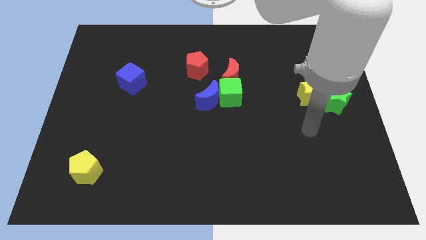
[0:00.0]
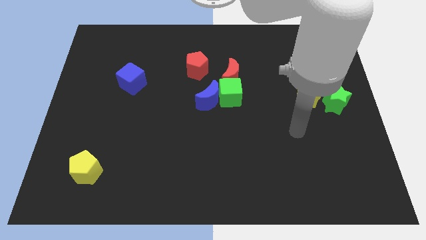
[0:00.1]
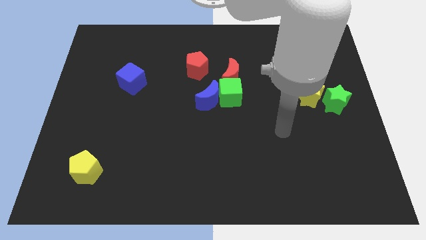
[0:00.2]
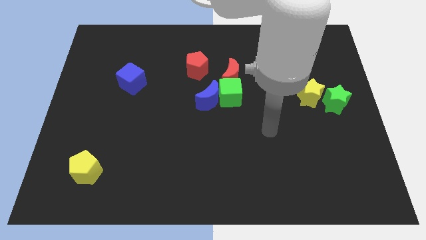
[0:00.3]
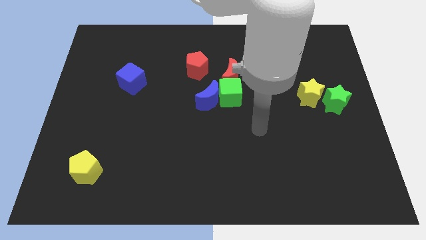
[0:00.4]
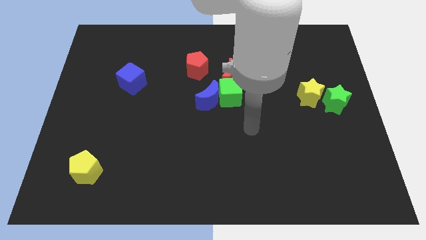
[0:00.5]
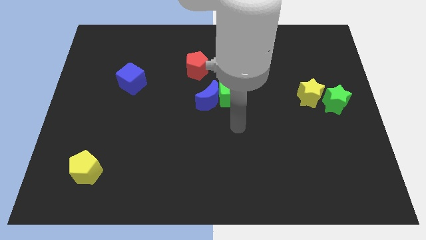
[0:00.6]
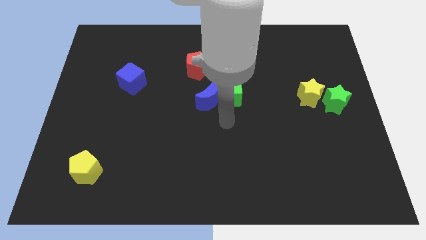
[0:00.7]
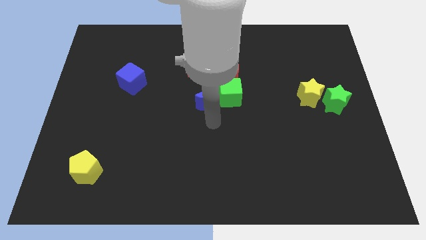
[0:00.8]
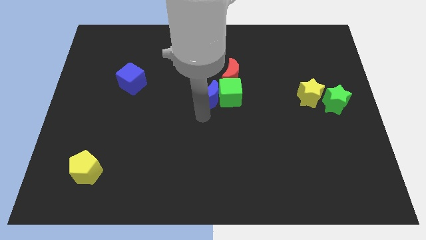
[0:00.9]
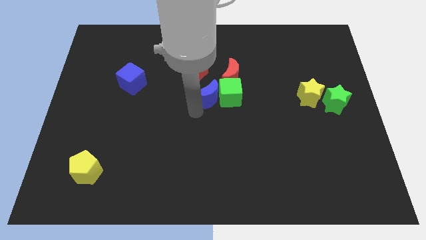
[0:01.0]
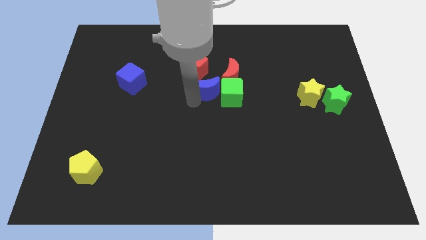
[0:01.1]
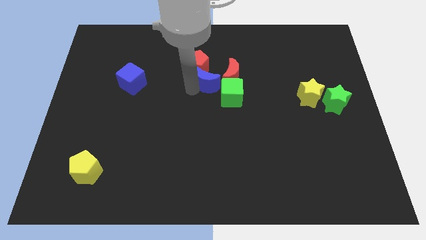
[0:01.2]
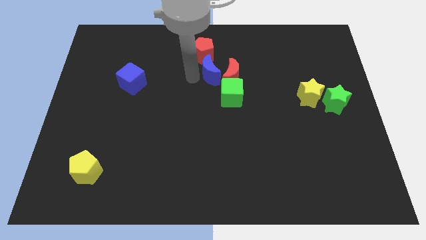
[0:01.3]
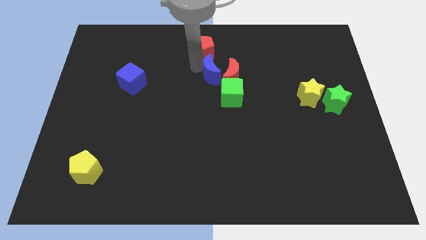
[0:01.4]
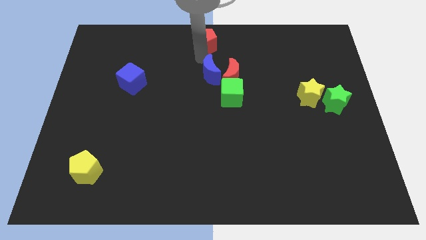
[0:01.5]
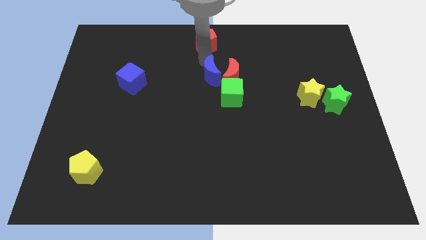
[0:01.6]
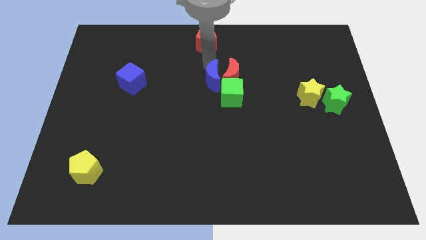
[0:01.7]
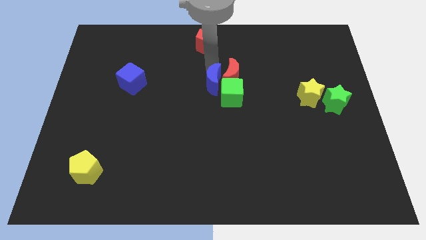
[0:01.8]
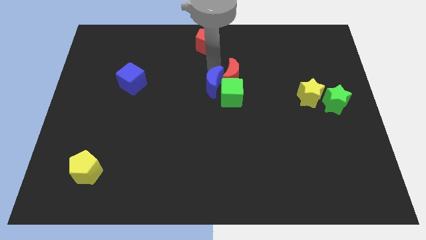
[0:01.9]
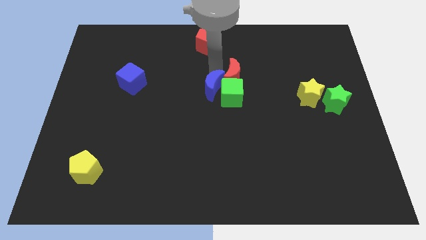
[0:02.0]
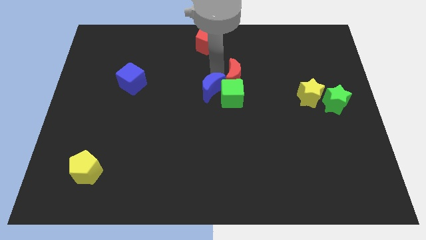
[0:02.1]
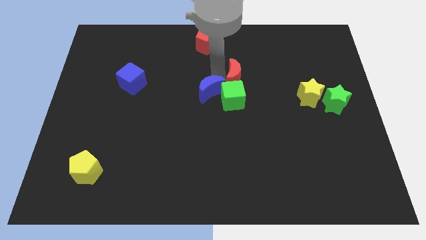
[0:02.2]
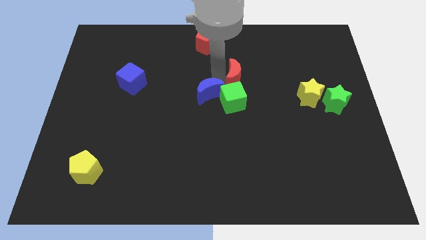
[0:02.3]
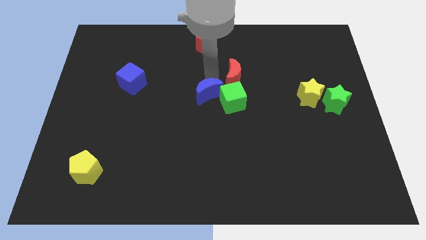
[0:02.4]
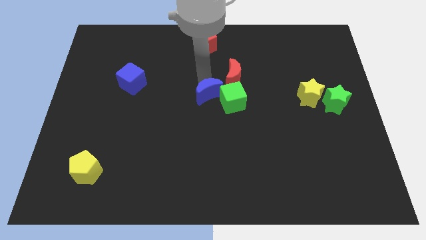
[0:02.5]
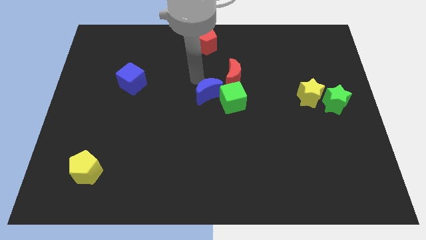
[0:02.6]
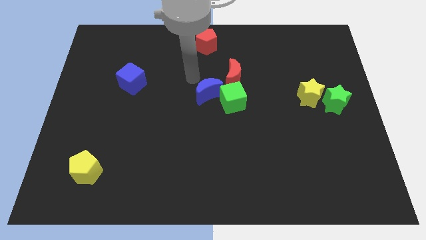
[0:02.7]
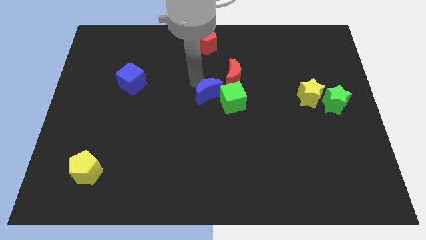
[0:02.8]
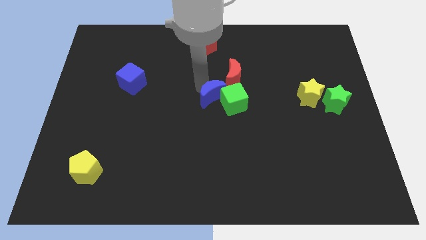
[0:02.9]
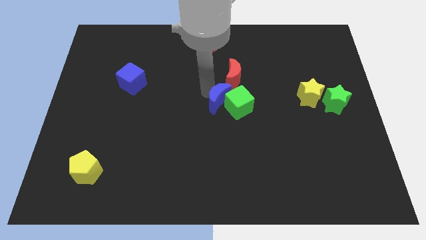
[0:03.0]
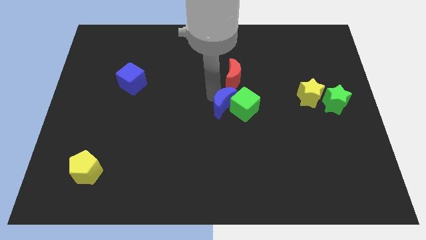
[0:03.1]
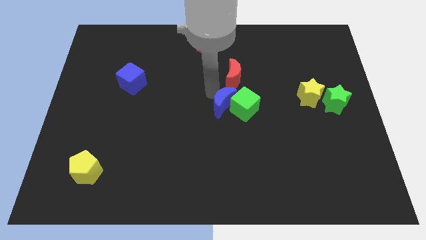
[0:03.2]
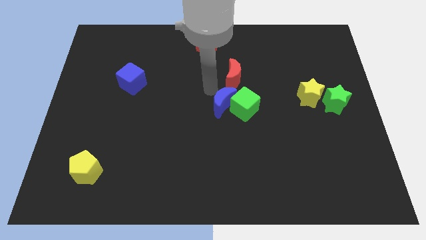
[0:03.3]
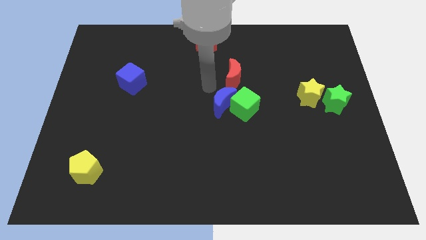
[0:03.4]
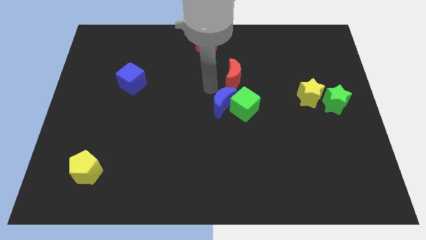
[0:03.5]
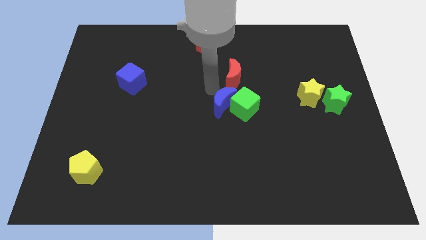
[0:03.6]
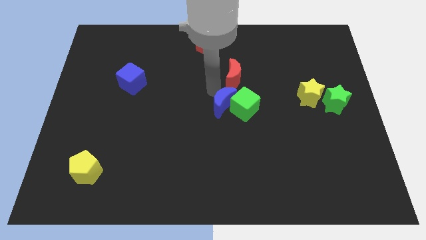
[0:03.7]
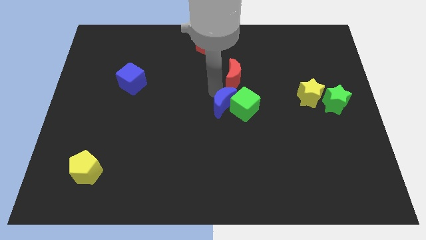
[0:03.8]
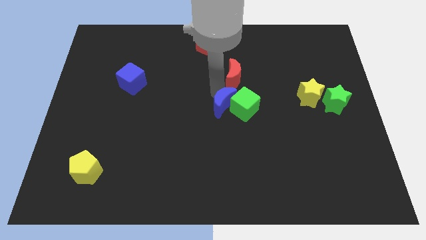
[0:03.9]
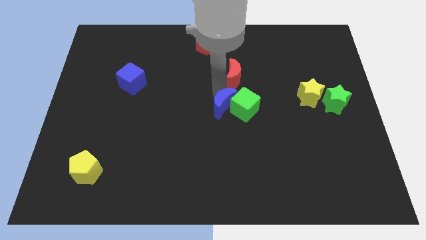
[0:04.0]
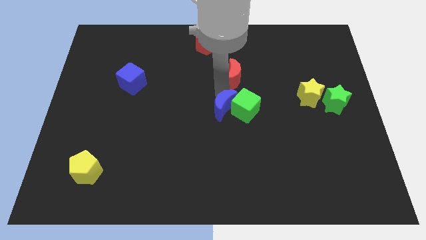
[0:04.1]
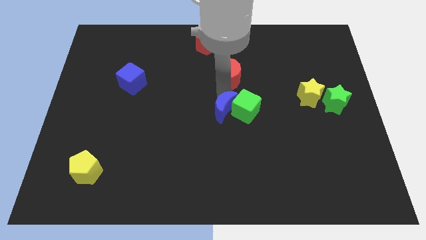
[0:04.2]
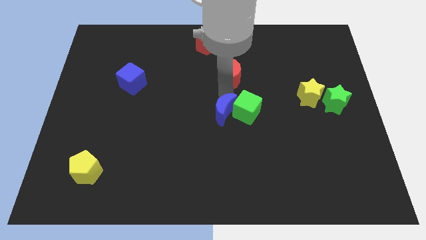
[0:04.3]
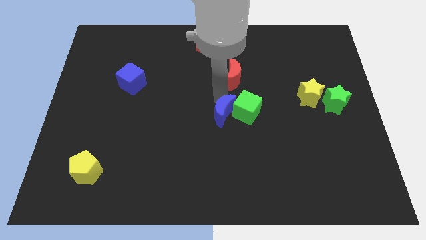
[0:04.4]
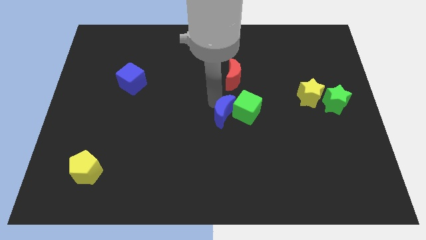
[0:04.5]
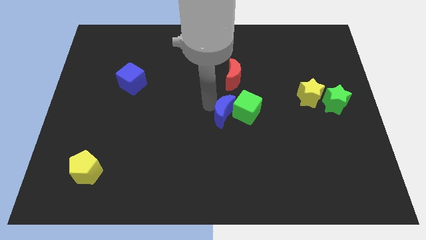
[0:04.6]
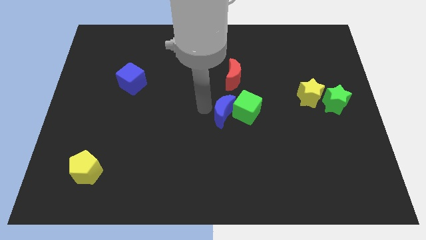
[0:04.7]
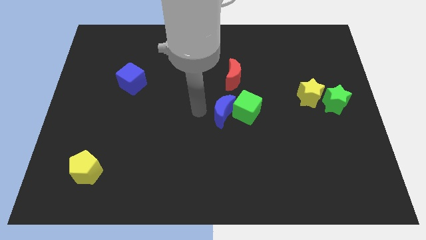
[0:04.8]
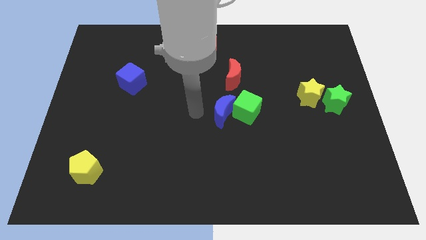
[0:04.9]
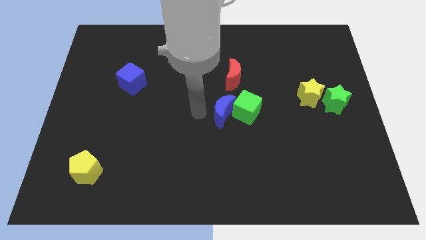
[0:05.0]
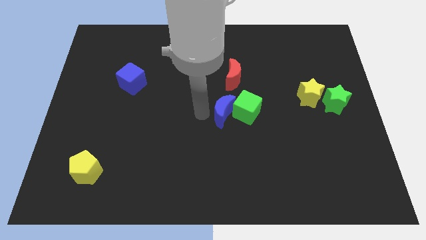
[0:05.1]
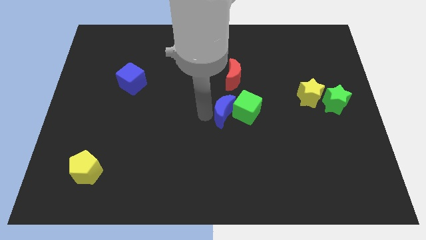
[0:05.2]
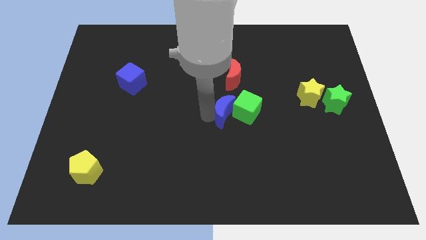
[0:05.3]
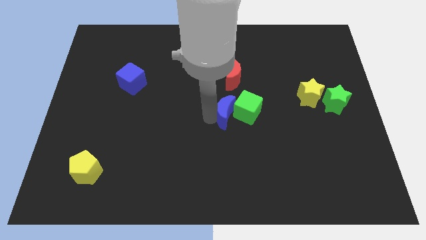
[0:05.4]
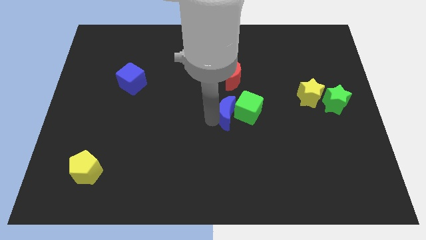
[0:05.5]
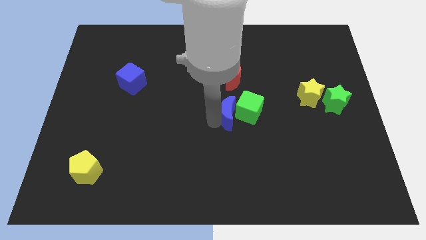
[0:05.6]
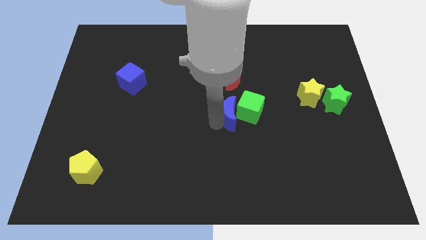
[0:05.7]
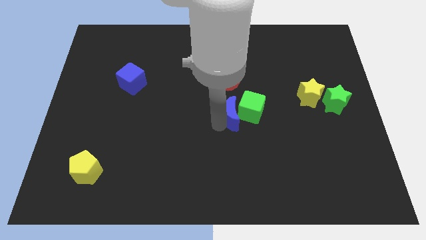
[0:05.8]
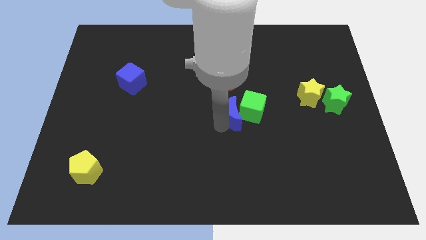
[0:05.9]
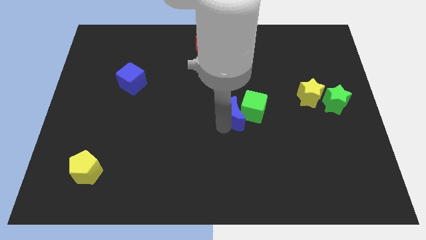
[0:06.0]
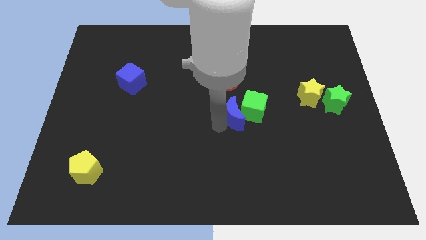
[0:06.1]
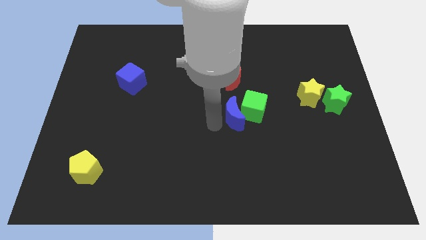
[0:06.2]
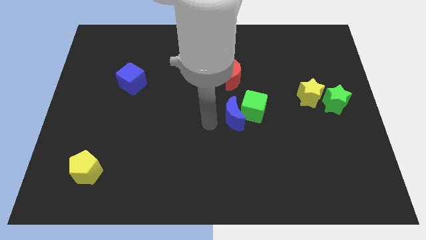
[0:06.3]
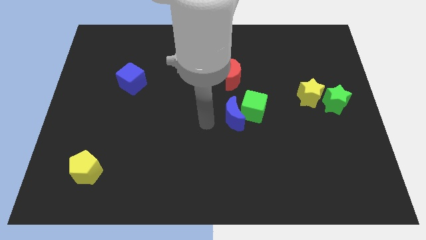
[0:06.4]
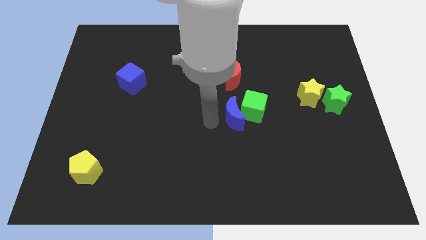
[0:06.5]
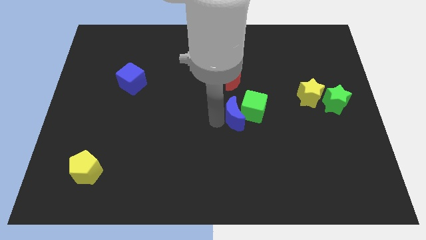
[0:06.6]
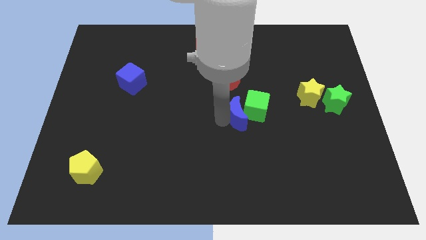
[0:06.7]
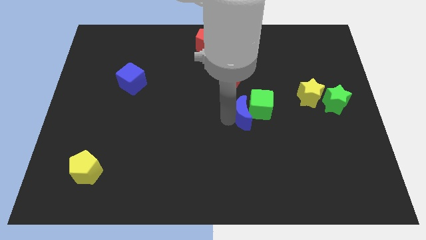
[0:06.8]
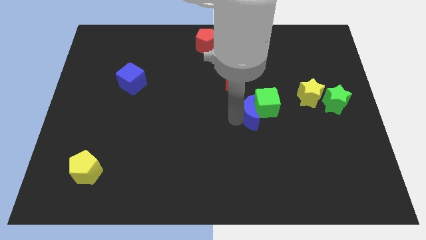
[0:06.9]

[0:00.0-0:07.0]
slide the blue moon somewhat to the right

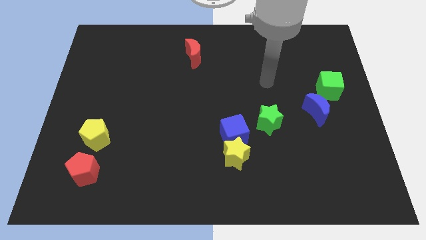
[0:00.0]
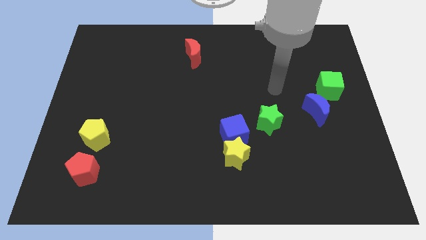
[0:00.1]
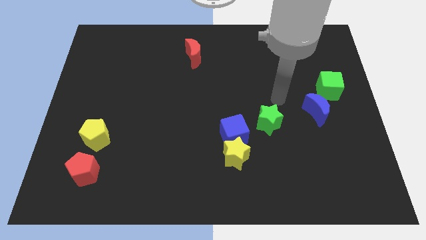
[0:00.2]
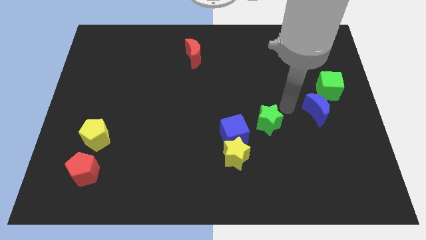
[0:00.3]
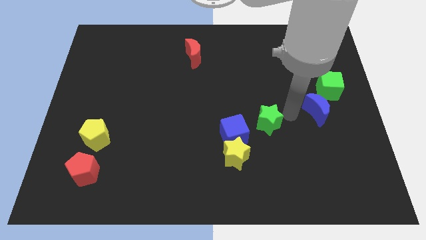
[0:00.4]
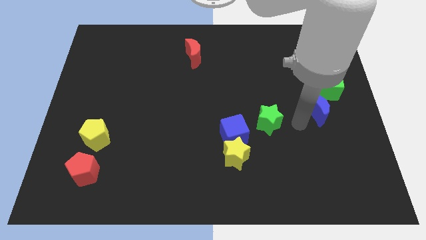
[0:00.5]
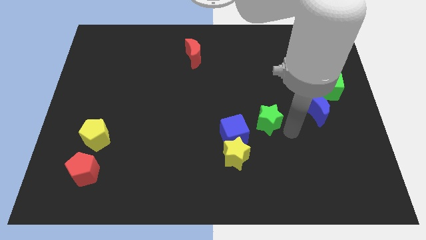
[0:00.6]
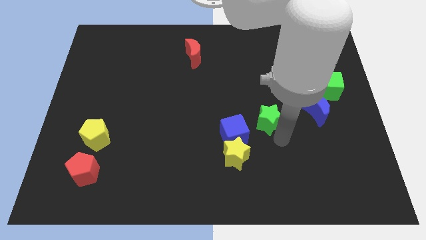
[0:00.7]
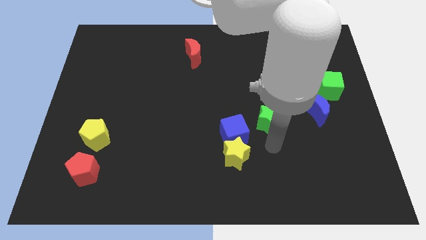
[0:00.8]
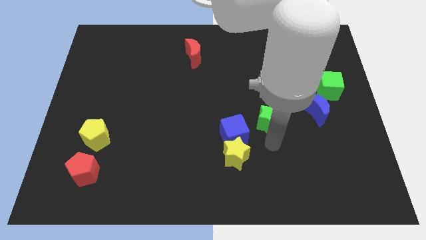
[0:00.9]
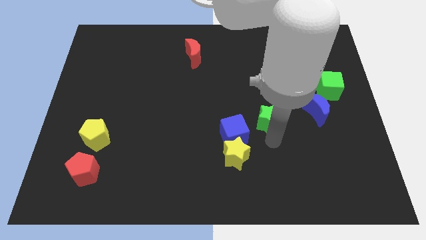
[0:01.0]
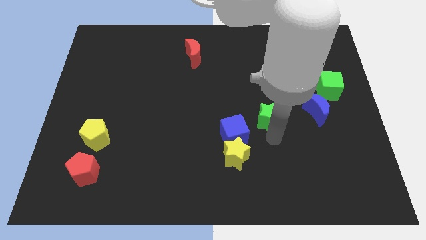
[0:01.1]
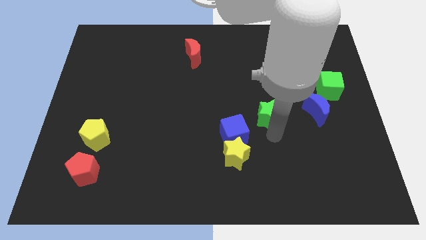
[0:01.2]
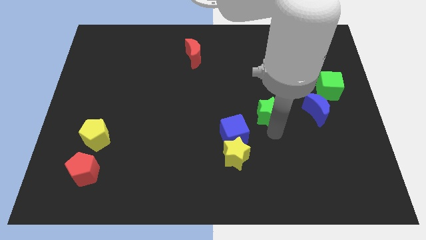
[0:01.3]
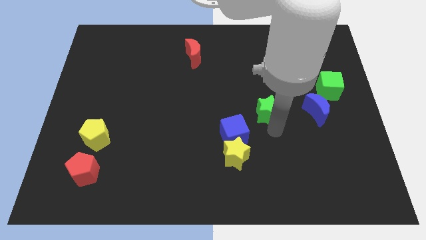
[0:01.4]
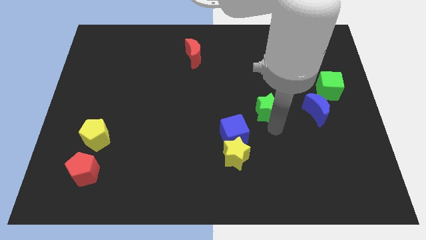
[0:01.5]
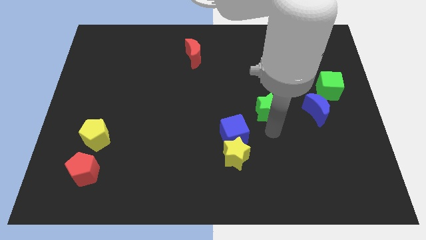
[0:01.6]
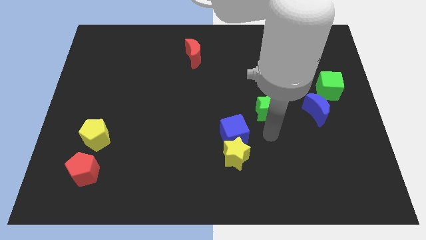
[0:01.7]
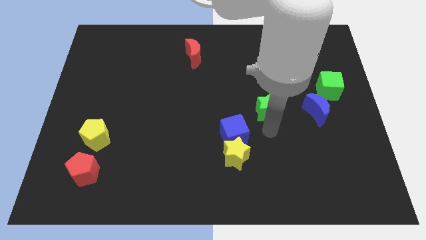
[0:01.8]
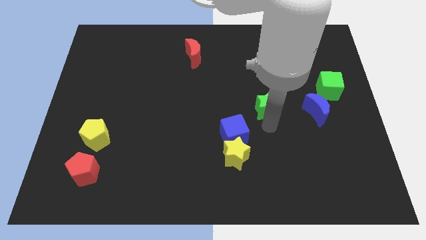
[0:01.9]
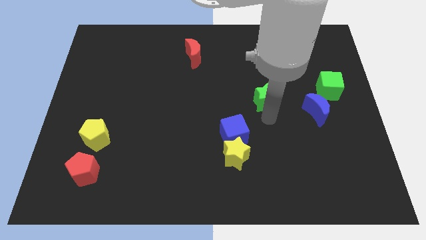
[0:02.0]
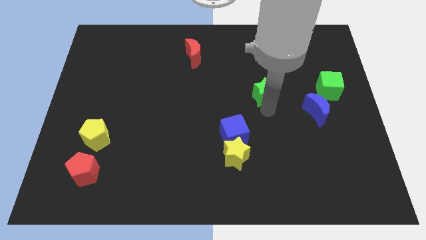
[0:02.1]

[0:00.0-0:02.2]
slightly move the green star up
